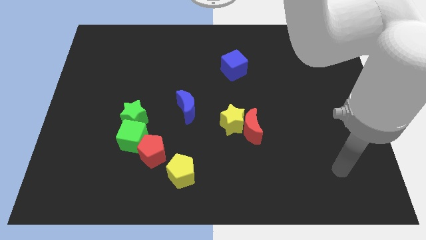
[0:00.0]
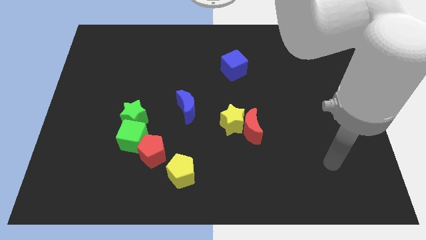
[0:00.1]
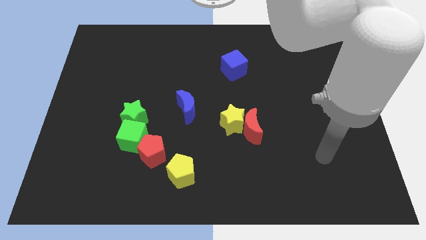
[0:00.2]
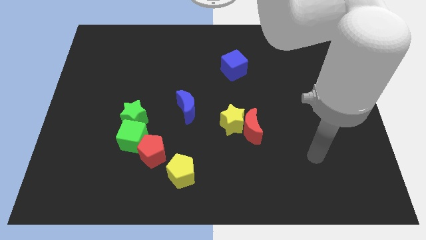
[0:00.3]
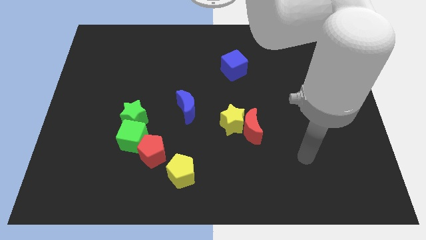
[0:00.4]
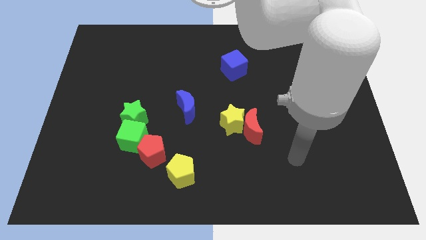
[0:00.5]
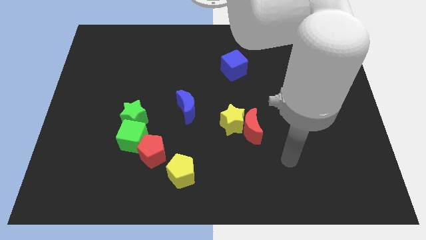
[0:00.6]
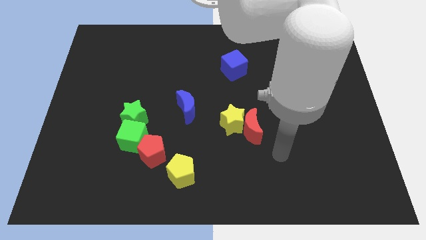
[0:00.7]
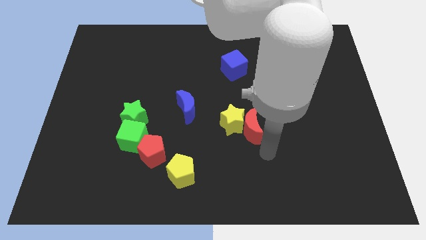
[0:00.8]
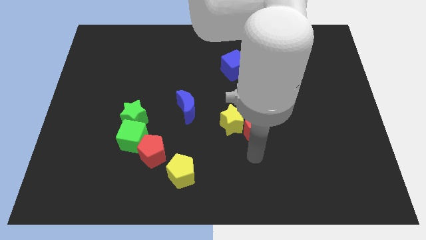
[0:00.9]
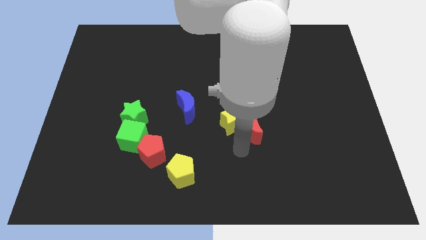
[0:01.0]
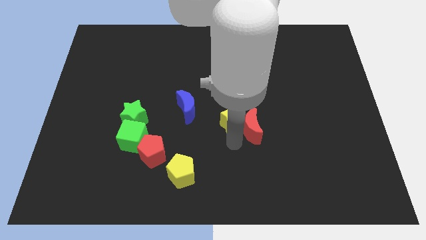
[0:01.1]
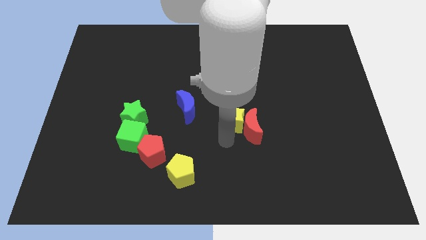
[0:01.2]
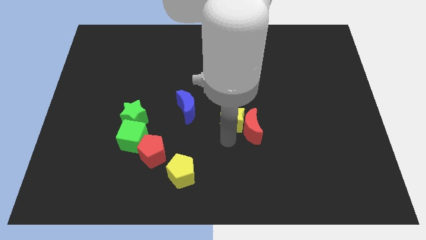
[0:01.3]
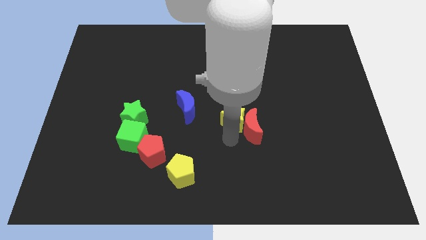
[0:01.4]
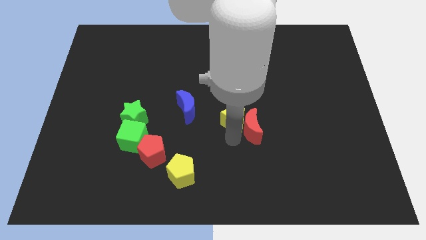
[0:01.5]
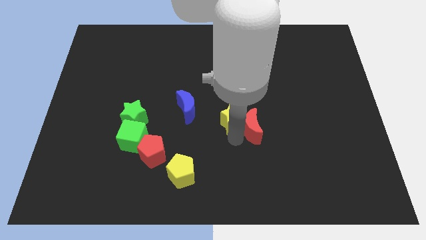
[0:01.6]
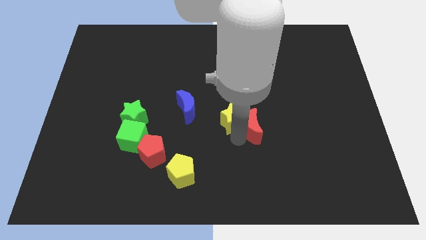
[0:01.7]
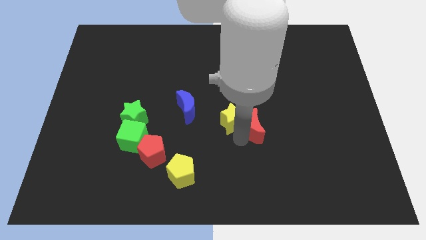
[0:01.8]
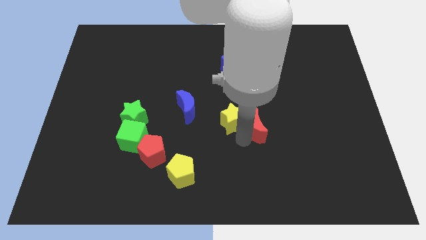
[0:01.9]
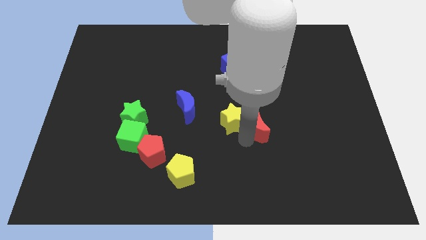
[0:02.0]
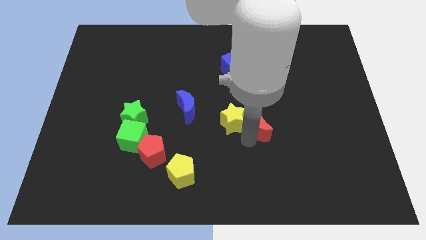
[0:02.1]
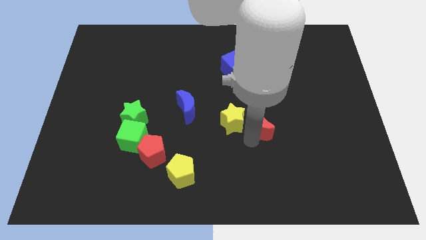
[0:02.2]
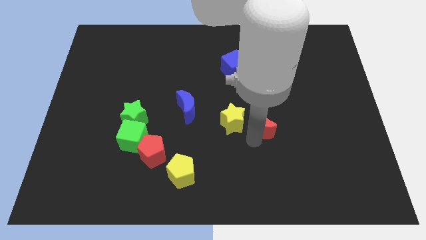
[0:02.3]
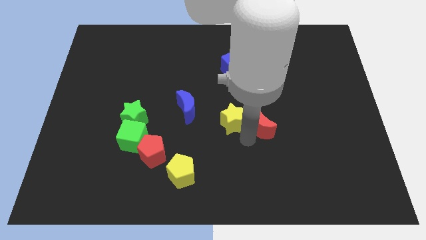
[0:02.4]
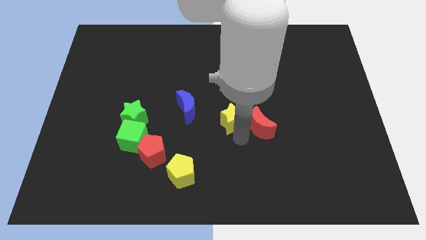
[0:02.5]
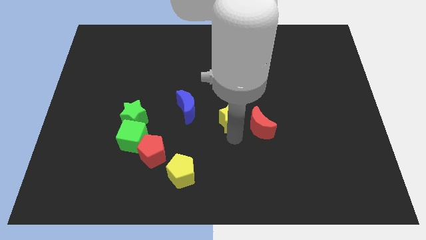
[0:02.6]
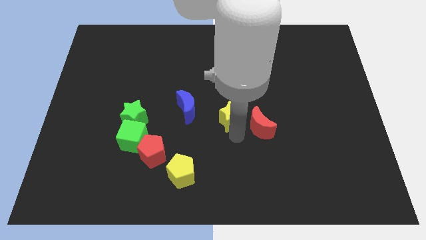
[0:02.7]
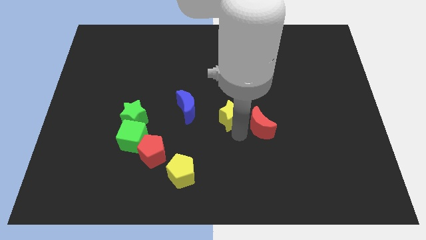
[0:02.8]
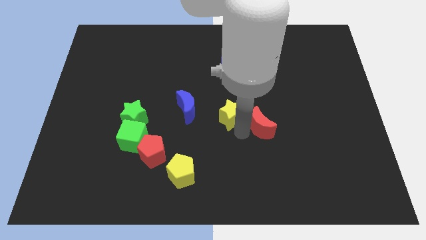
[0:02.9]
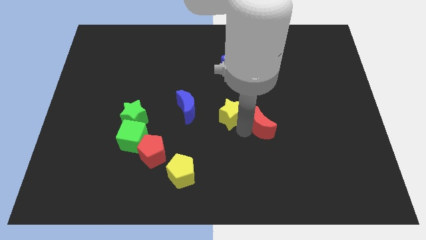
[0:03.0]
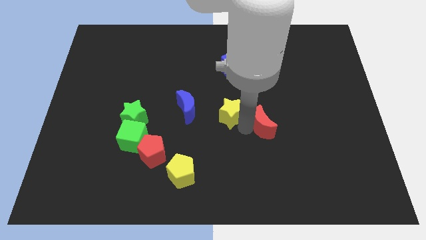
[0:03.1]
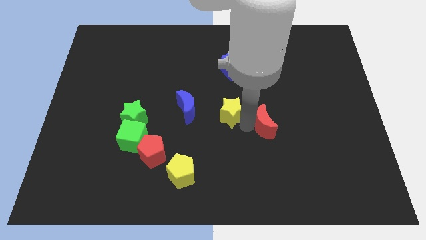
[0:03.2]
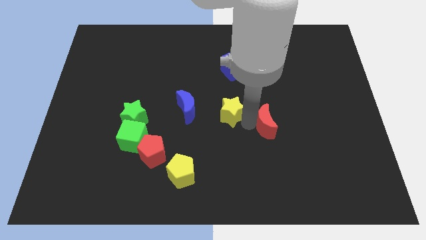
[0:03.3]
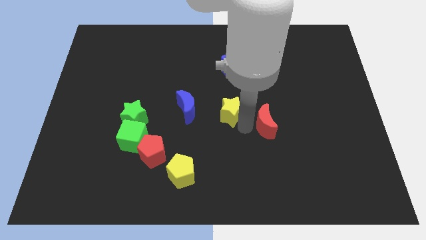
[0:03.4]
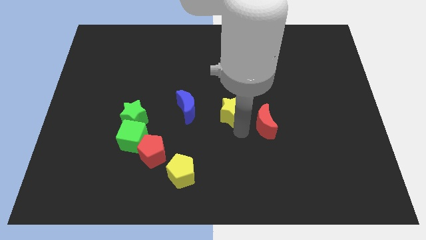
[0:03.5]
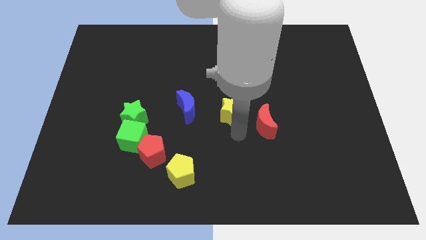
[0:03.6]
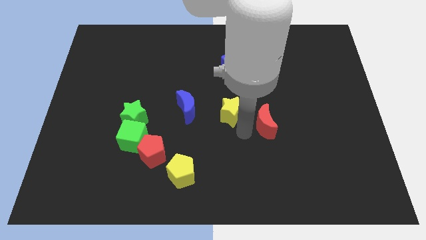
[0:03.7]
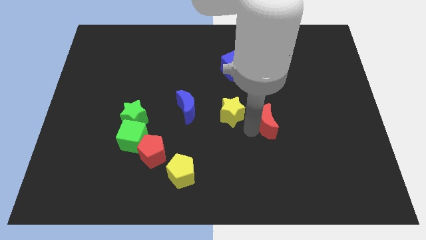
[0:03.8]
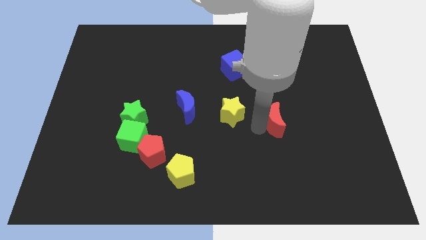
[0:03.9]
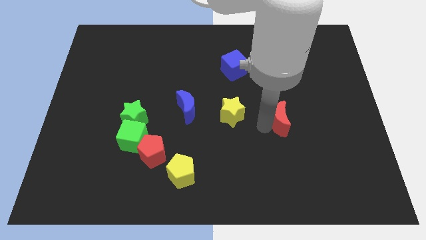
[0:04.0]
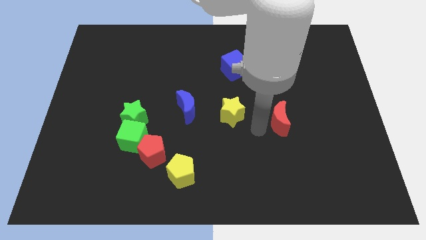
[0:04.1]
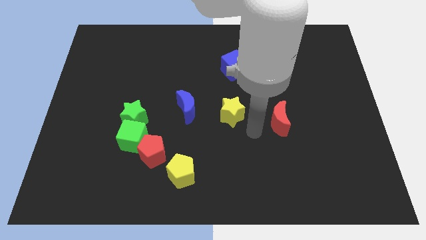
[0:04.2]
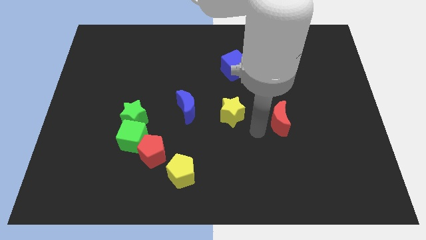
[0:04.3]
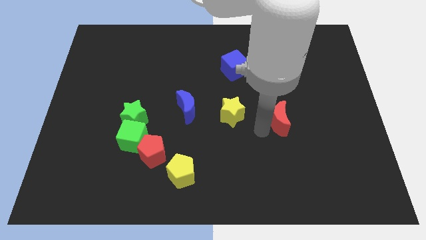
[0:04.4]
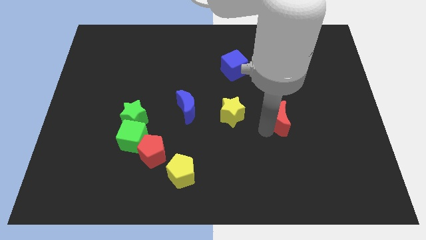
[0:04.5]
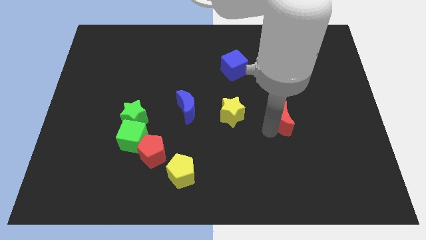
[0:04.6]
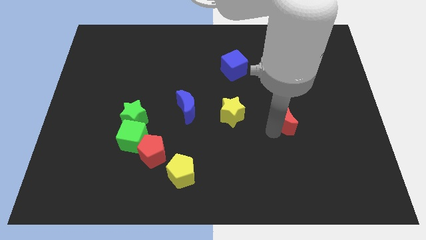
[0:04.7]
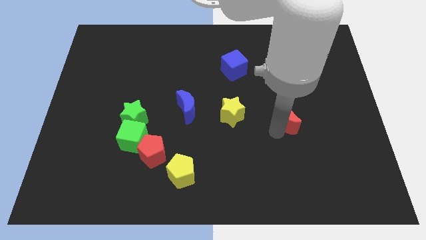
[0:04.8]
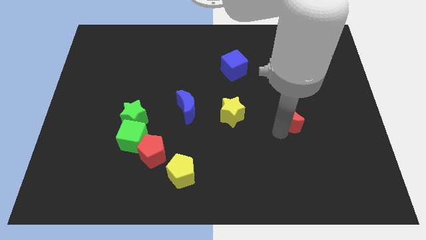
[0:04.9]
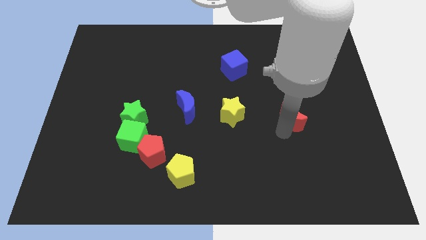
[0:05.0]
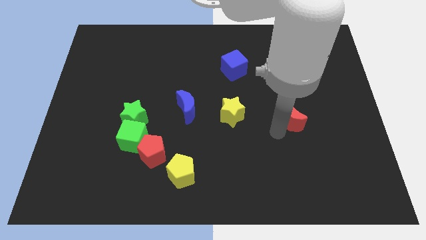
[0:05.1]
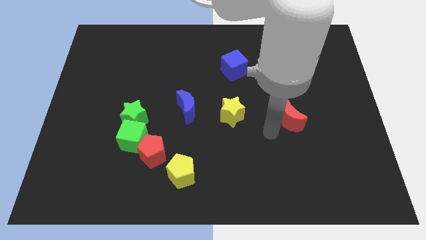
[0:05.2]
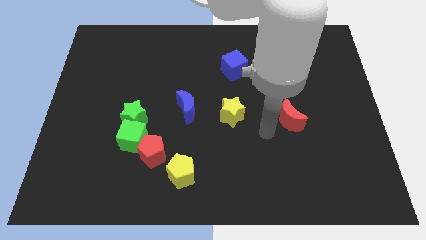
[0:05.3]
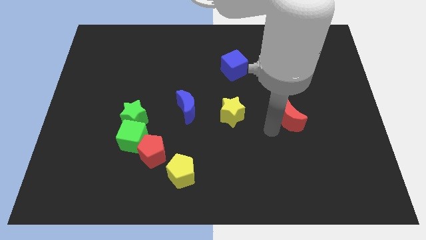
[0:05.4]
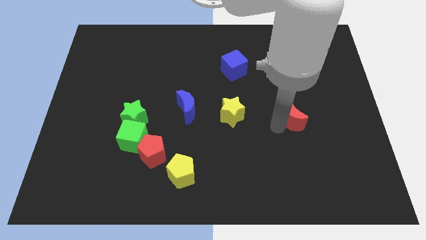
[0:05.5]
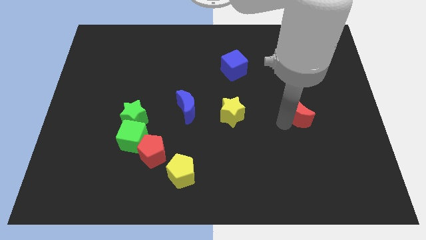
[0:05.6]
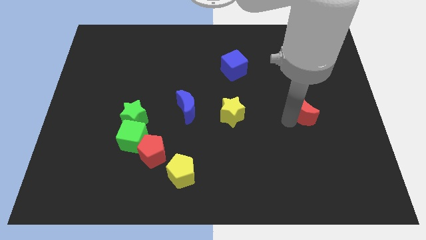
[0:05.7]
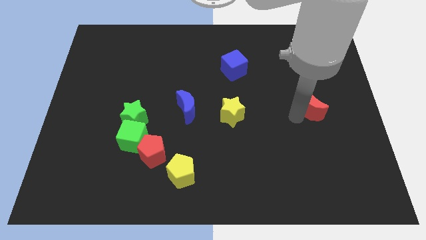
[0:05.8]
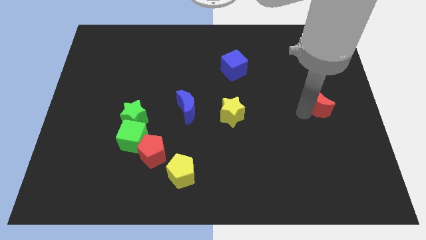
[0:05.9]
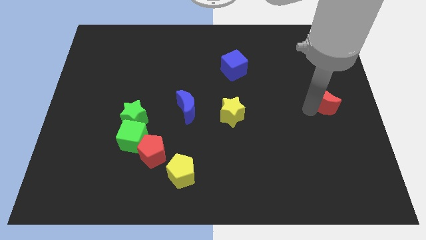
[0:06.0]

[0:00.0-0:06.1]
move the red moon to the right side of the board
